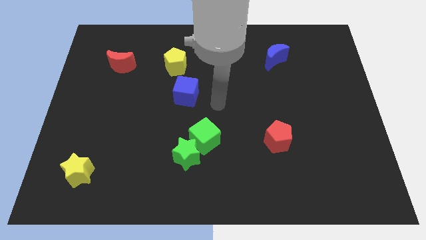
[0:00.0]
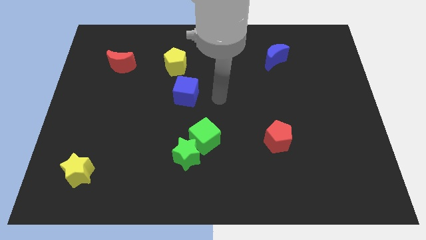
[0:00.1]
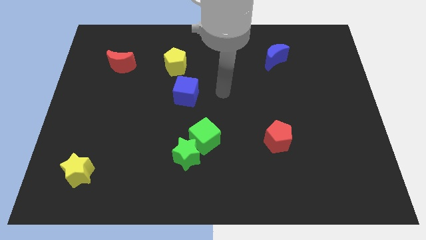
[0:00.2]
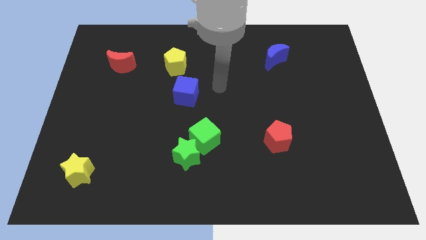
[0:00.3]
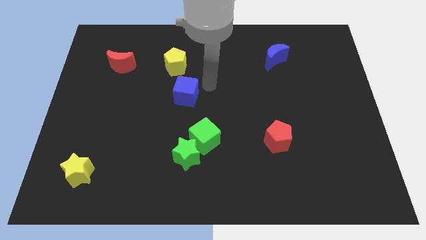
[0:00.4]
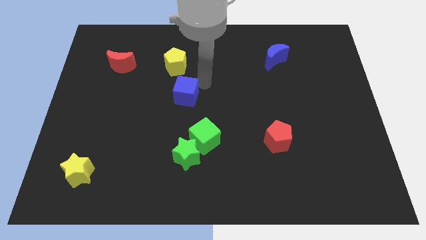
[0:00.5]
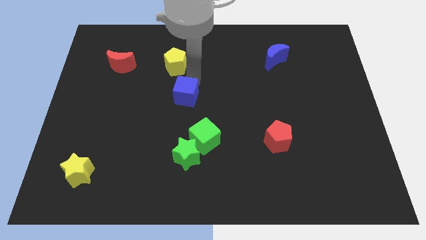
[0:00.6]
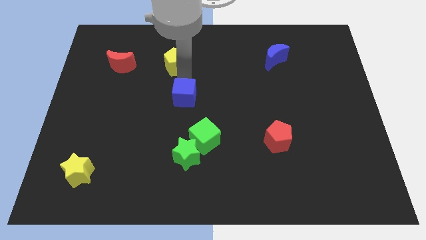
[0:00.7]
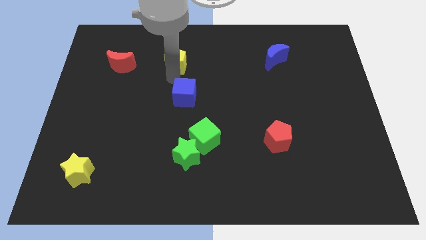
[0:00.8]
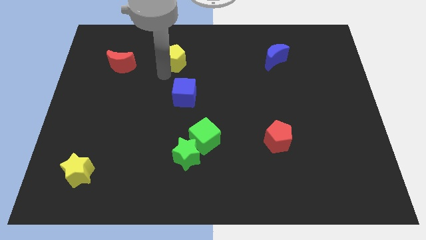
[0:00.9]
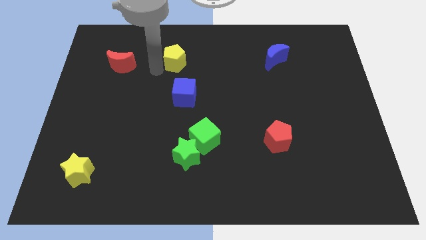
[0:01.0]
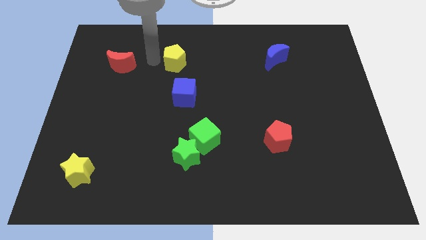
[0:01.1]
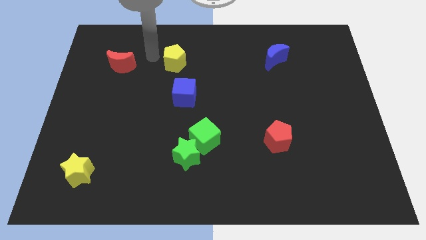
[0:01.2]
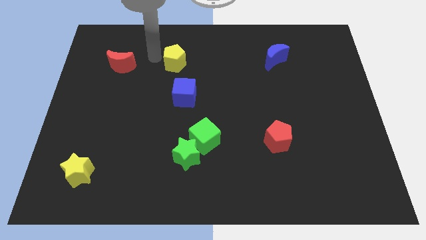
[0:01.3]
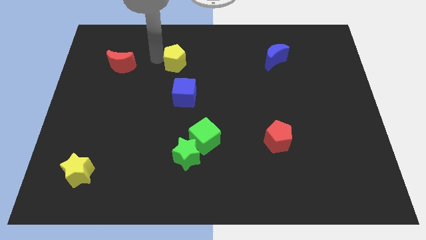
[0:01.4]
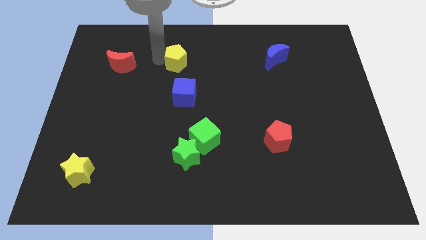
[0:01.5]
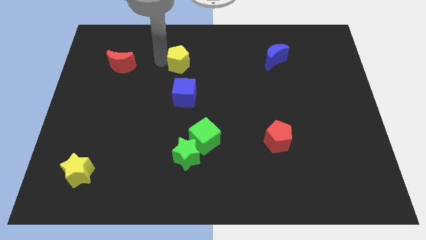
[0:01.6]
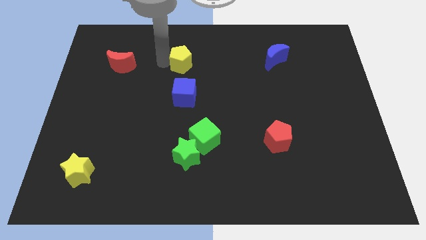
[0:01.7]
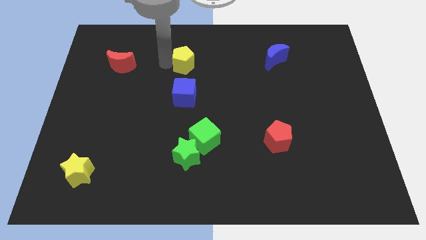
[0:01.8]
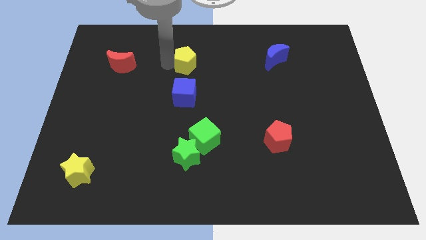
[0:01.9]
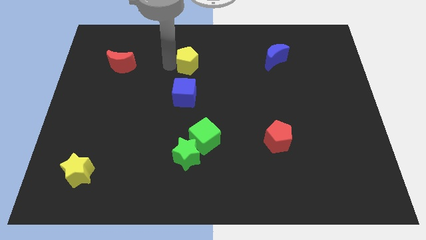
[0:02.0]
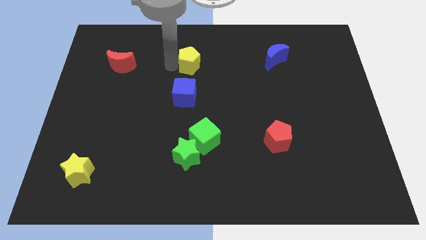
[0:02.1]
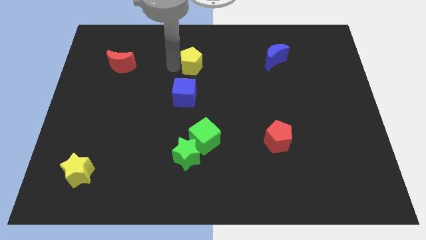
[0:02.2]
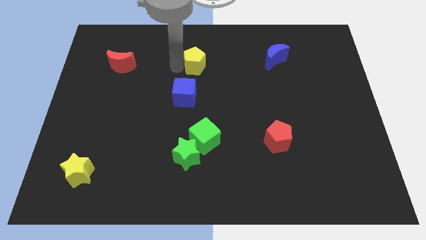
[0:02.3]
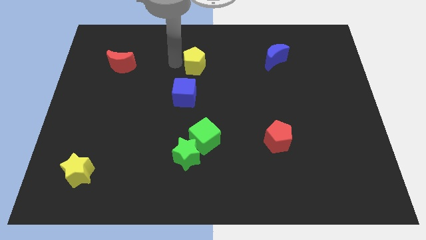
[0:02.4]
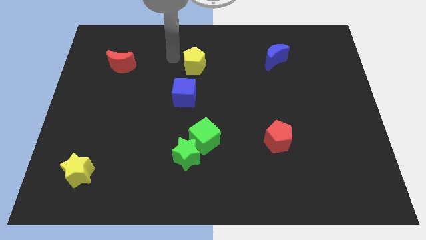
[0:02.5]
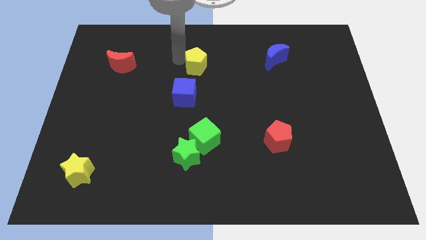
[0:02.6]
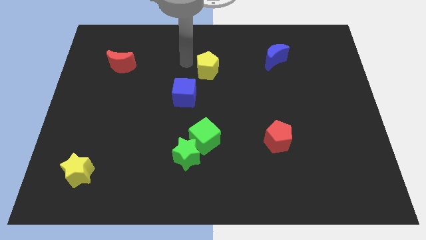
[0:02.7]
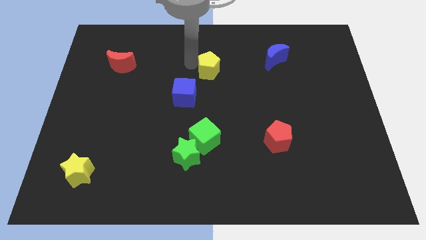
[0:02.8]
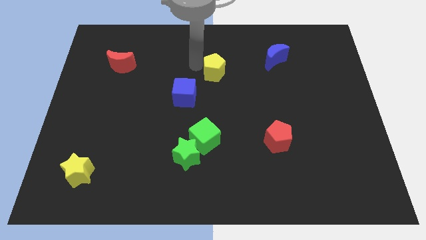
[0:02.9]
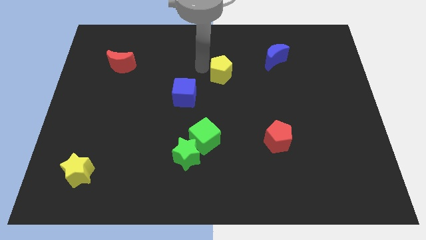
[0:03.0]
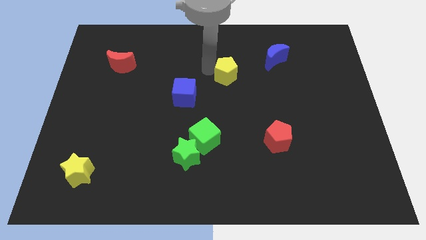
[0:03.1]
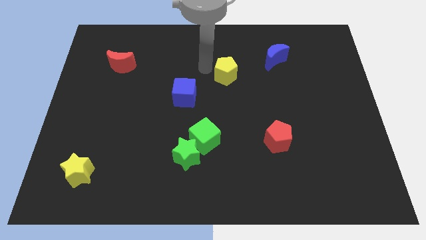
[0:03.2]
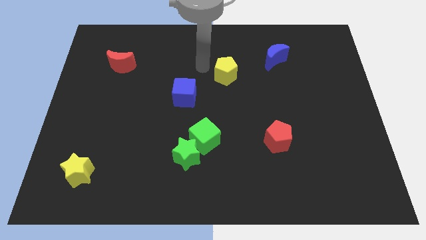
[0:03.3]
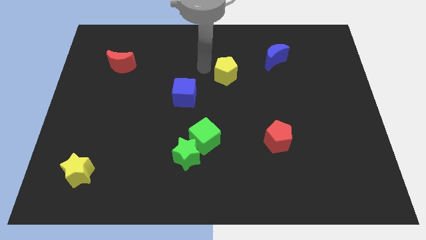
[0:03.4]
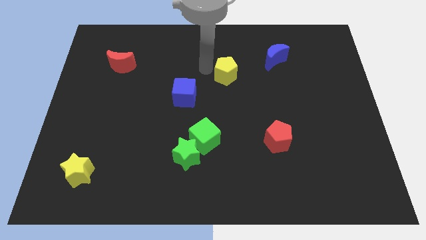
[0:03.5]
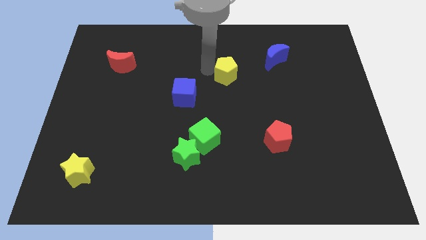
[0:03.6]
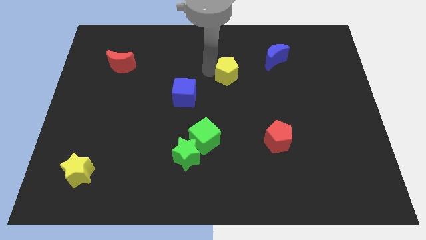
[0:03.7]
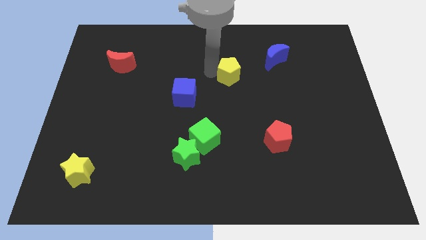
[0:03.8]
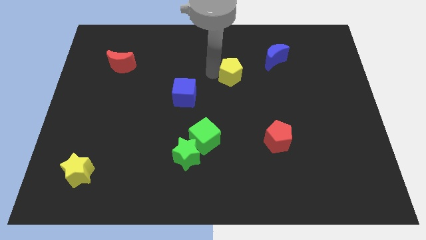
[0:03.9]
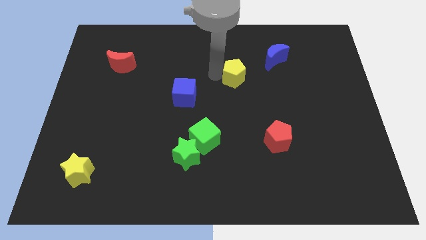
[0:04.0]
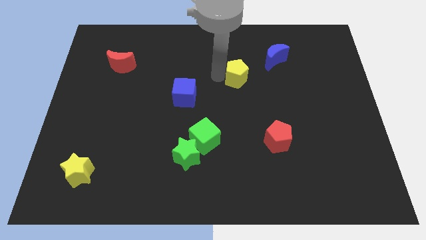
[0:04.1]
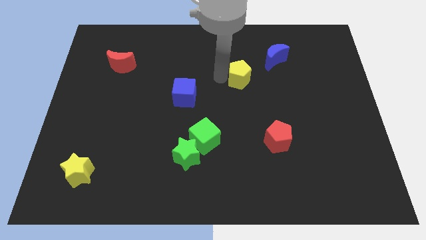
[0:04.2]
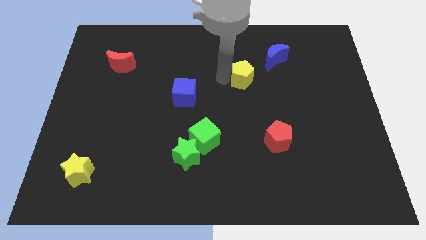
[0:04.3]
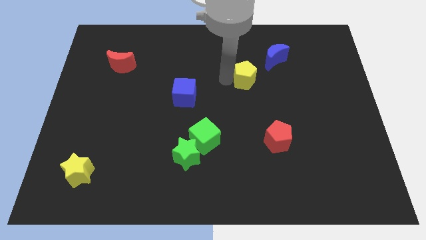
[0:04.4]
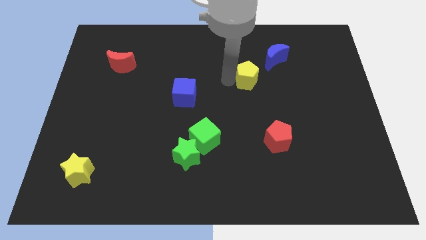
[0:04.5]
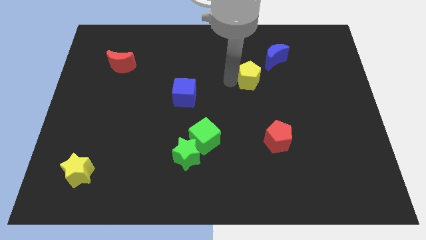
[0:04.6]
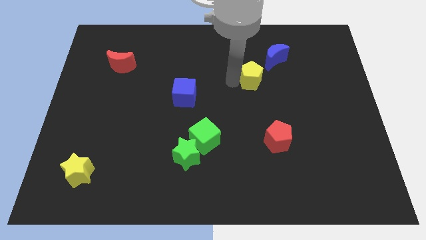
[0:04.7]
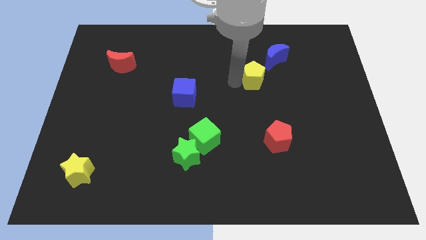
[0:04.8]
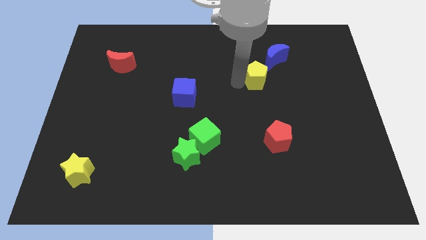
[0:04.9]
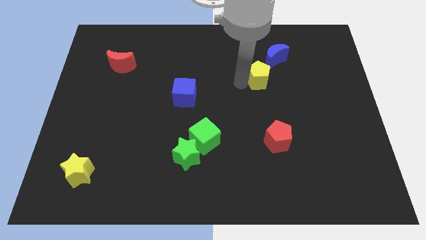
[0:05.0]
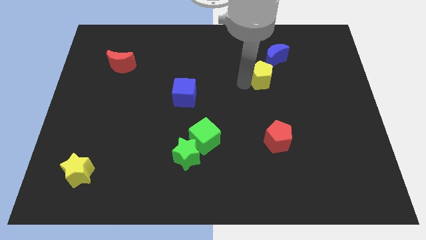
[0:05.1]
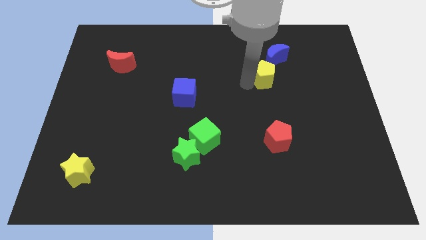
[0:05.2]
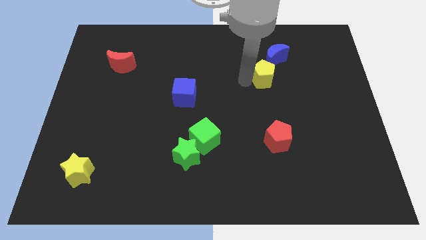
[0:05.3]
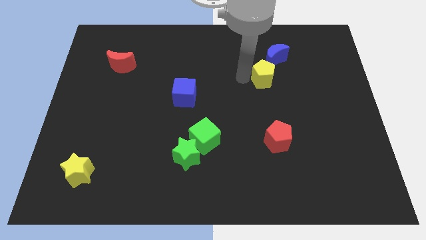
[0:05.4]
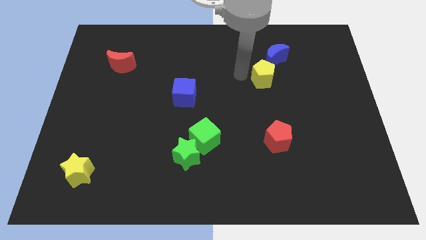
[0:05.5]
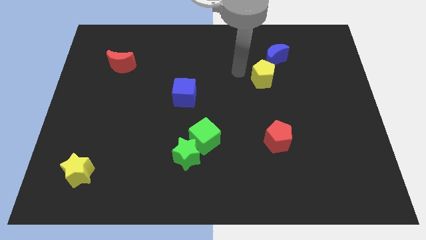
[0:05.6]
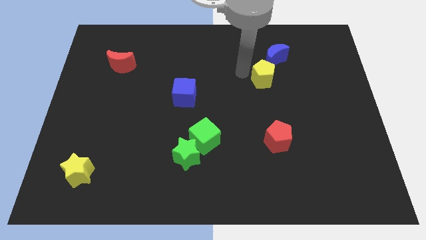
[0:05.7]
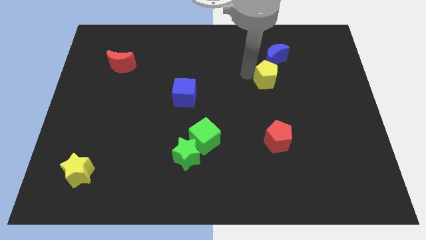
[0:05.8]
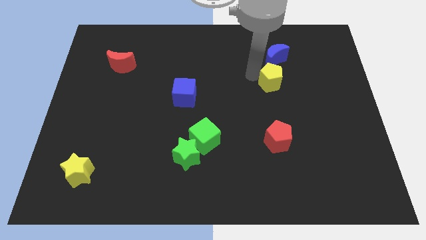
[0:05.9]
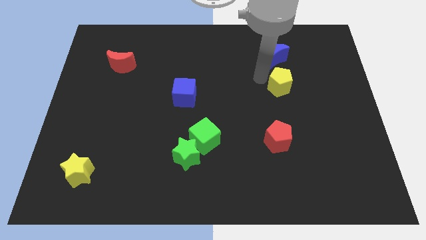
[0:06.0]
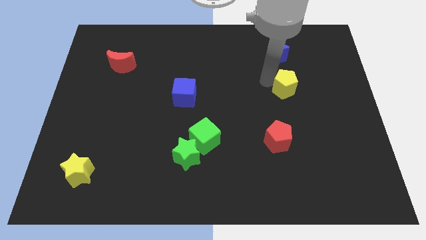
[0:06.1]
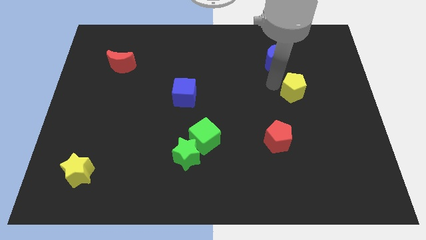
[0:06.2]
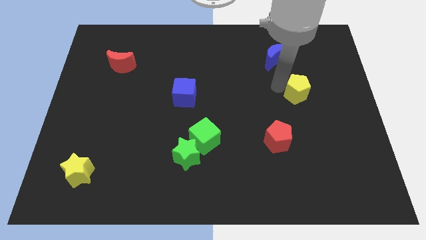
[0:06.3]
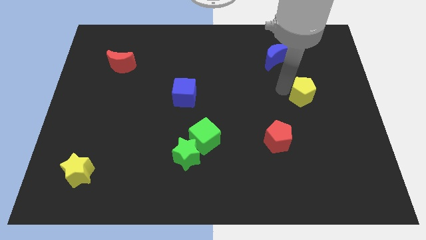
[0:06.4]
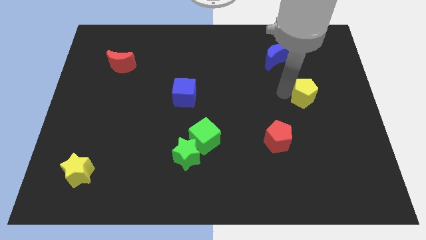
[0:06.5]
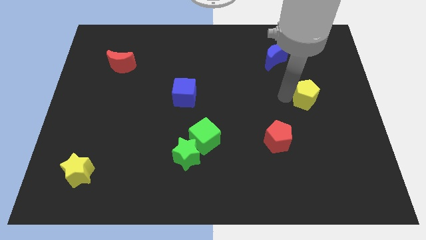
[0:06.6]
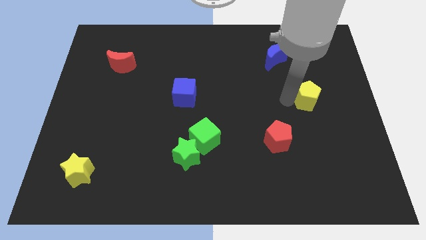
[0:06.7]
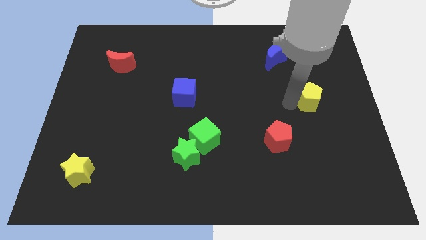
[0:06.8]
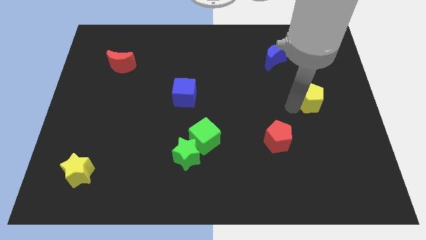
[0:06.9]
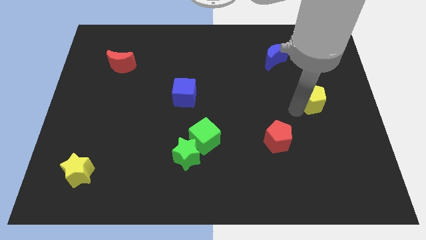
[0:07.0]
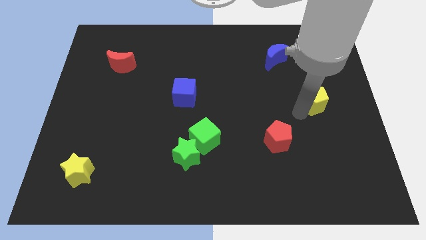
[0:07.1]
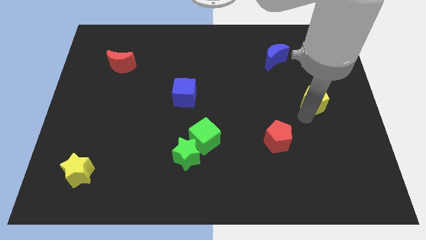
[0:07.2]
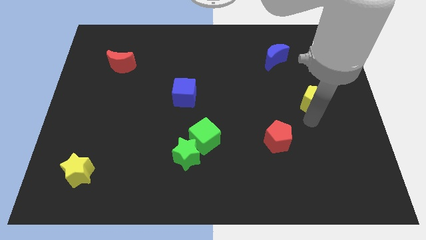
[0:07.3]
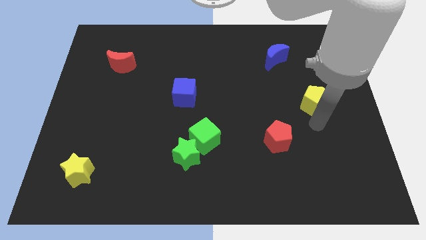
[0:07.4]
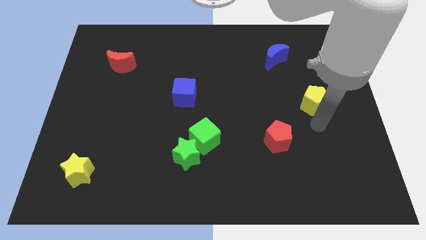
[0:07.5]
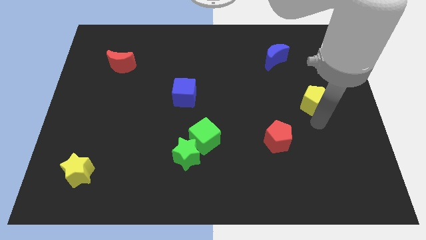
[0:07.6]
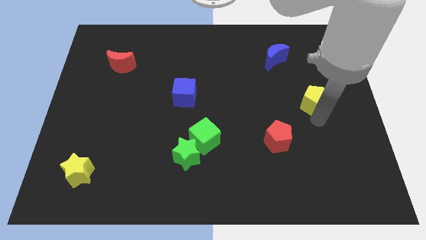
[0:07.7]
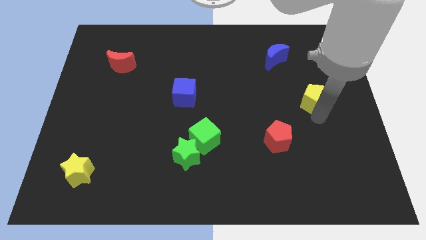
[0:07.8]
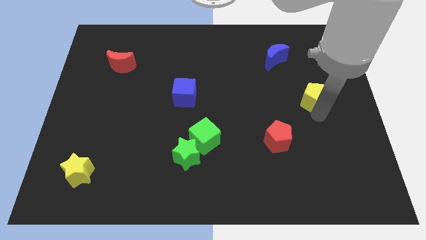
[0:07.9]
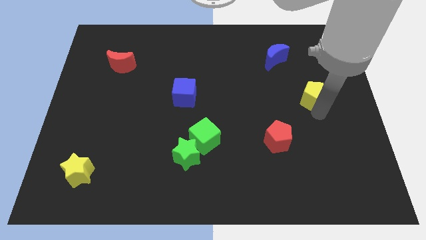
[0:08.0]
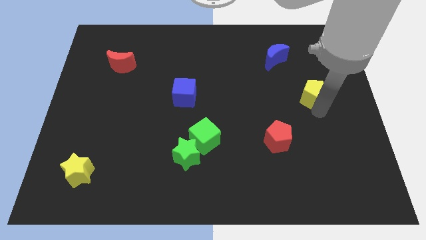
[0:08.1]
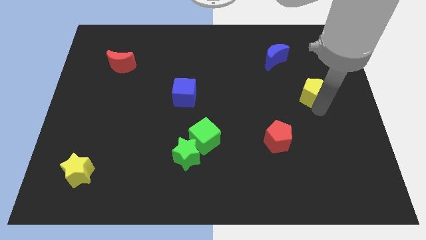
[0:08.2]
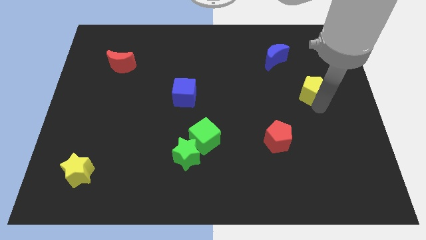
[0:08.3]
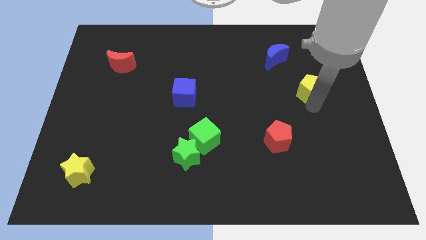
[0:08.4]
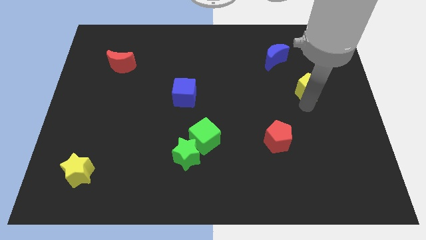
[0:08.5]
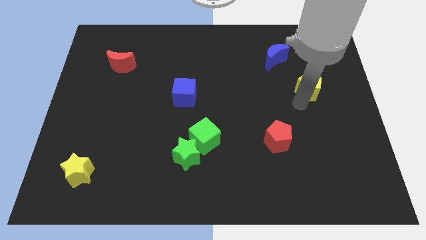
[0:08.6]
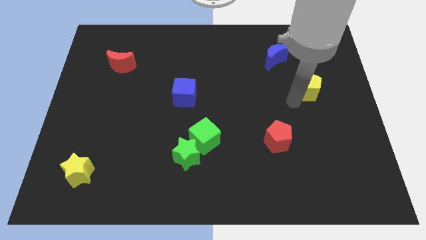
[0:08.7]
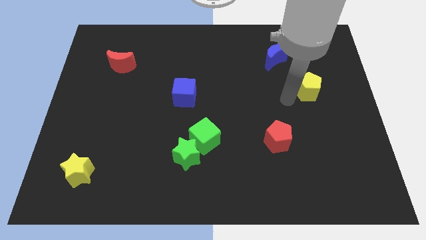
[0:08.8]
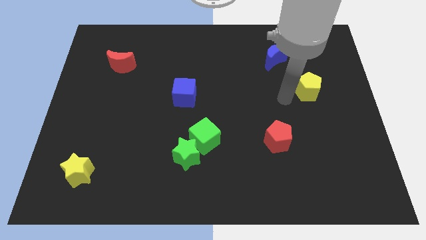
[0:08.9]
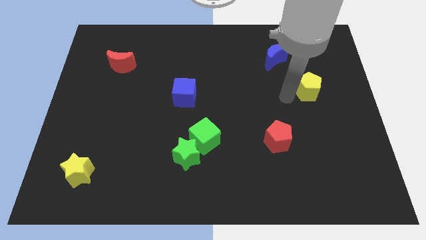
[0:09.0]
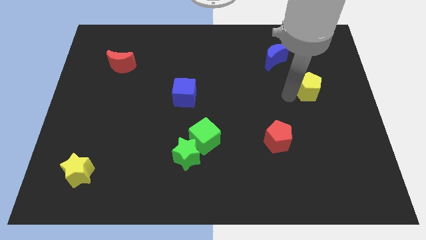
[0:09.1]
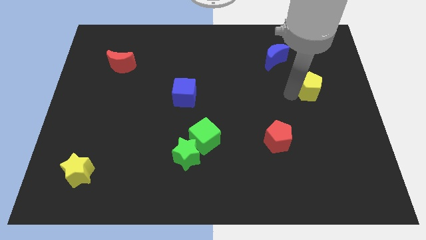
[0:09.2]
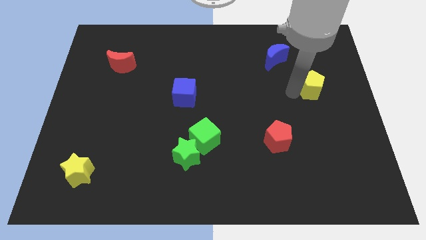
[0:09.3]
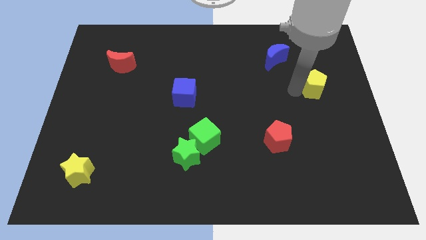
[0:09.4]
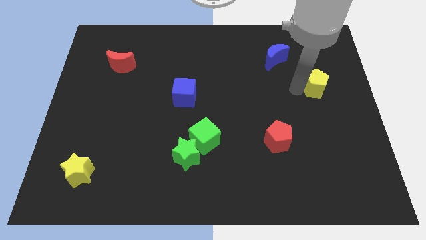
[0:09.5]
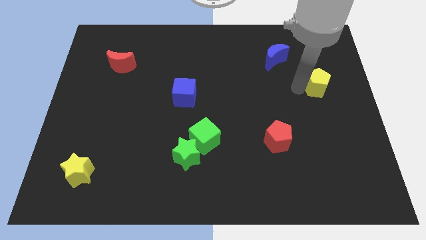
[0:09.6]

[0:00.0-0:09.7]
push the yellow pentagon to the right side
